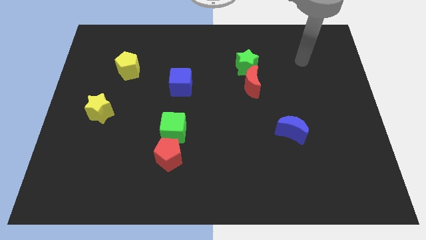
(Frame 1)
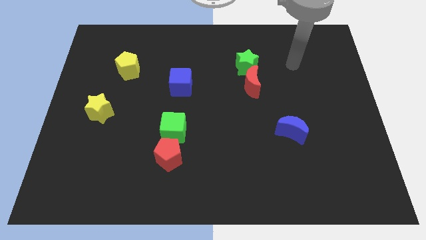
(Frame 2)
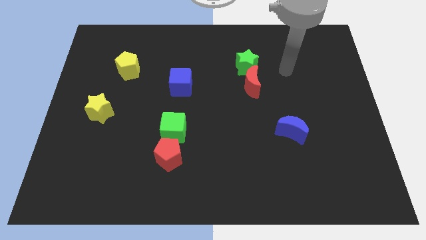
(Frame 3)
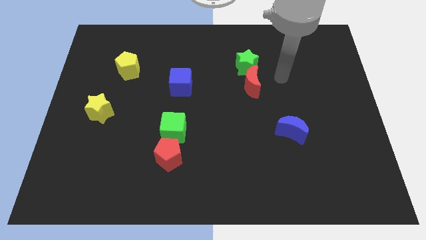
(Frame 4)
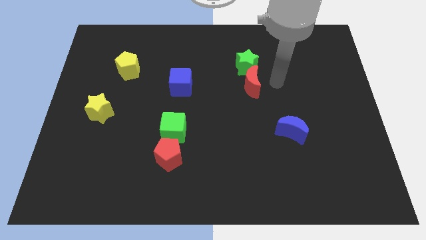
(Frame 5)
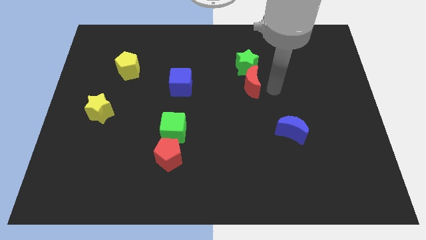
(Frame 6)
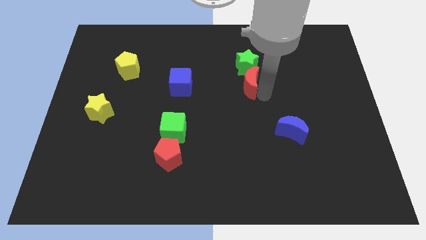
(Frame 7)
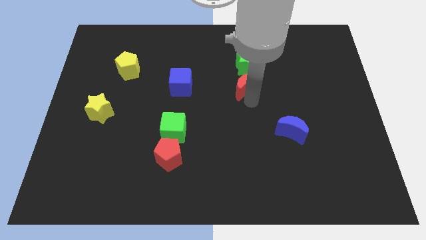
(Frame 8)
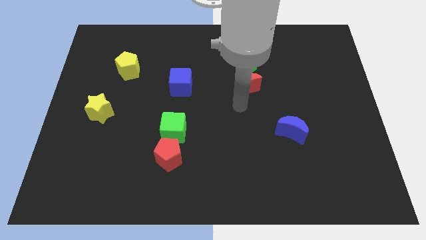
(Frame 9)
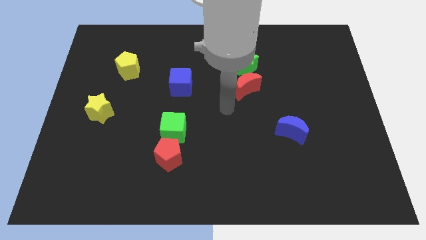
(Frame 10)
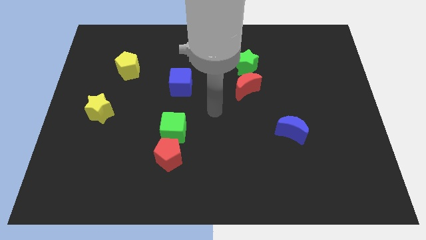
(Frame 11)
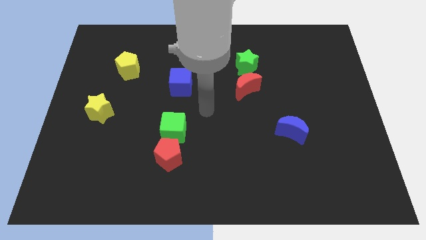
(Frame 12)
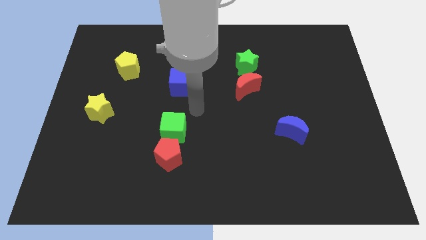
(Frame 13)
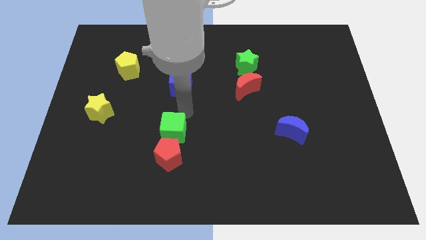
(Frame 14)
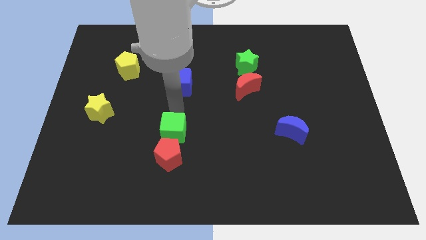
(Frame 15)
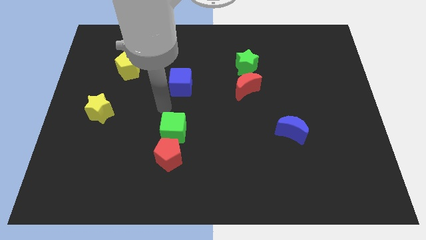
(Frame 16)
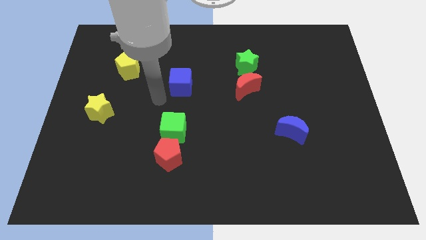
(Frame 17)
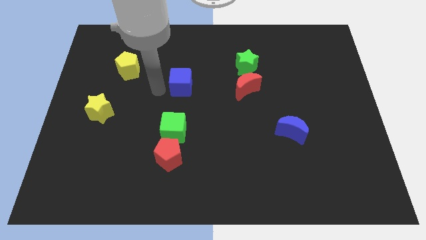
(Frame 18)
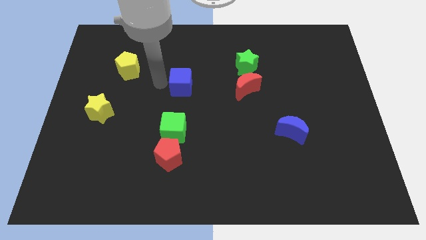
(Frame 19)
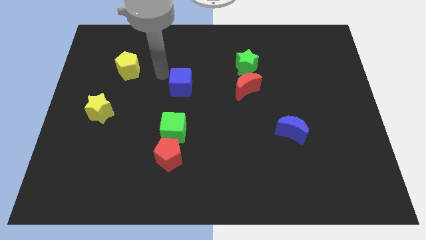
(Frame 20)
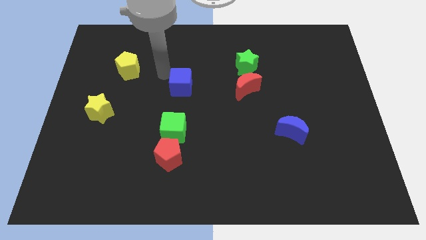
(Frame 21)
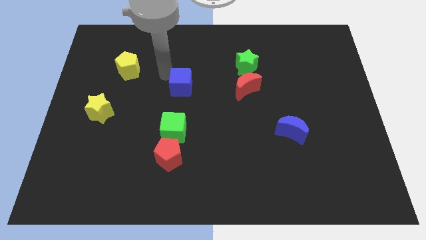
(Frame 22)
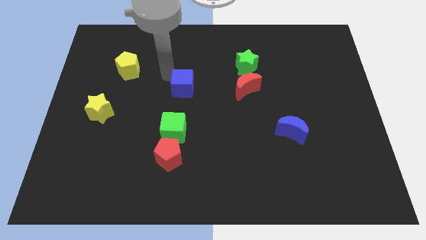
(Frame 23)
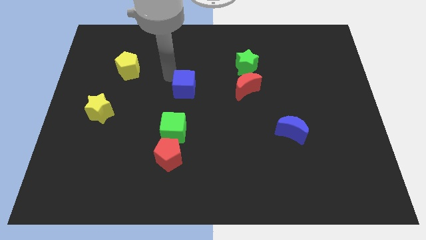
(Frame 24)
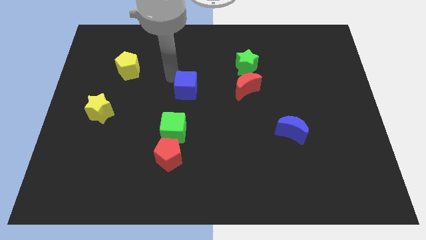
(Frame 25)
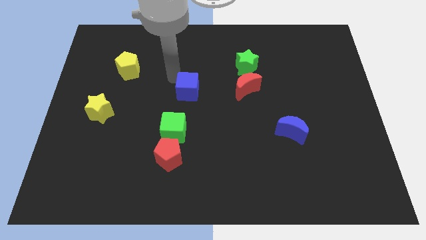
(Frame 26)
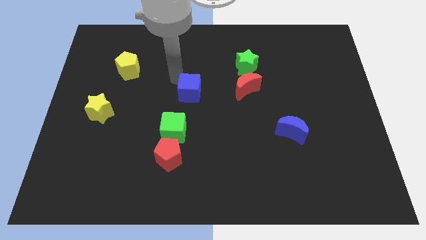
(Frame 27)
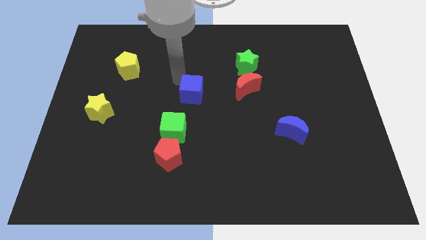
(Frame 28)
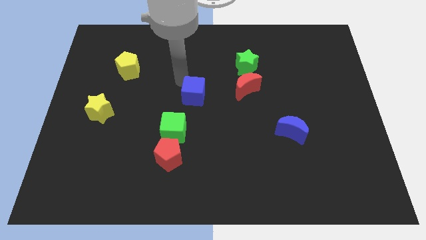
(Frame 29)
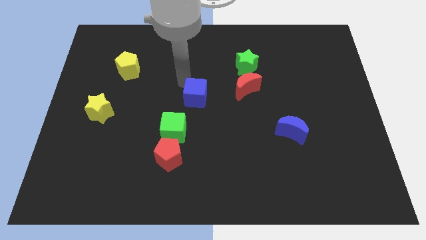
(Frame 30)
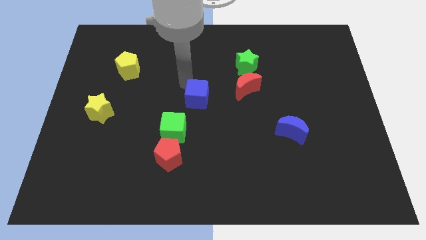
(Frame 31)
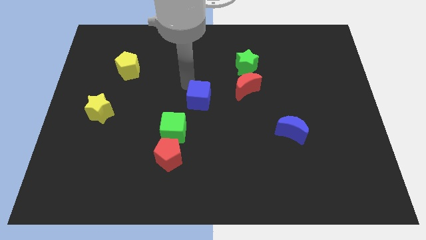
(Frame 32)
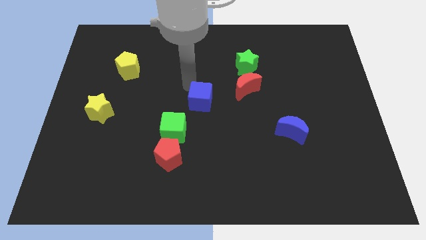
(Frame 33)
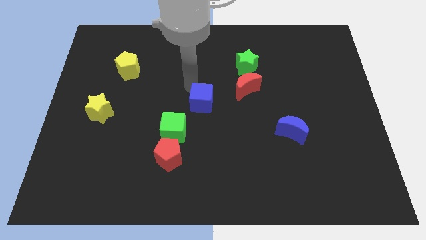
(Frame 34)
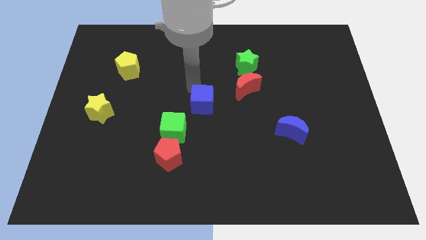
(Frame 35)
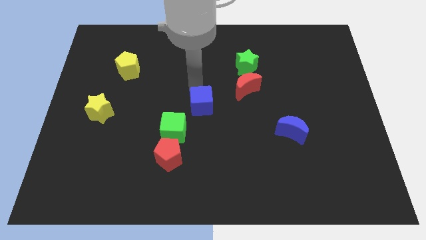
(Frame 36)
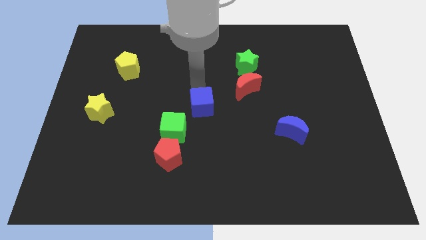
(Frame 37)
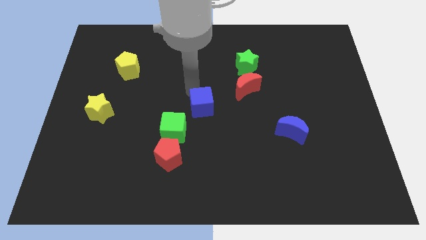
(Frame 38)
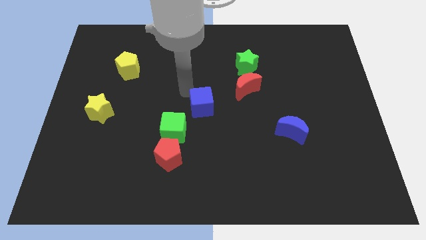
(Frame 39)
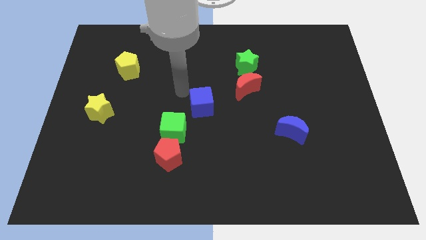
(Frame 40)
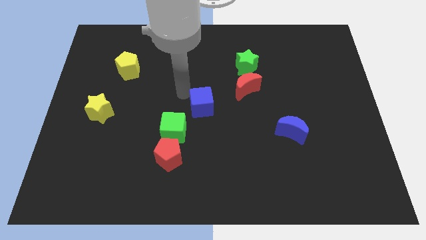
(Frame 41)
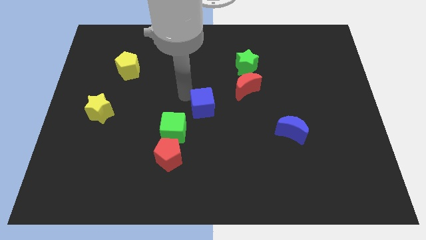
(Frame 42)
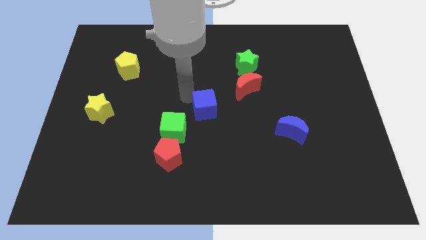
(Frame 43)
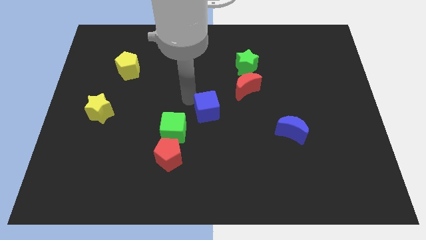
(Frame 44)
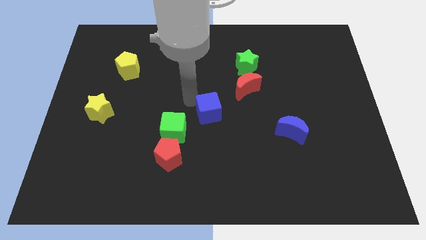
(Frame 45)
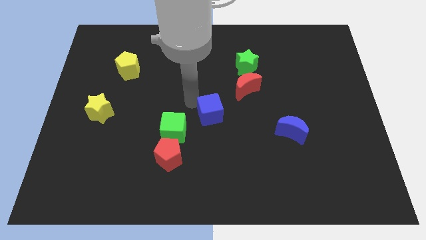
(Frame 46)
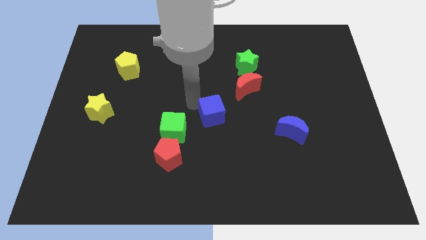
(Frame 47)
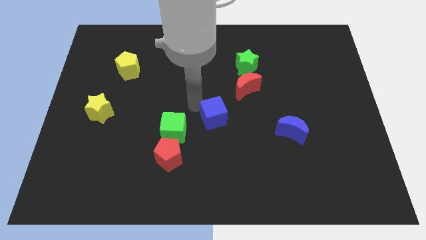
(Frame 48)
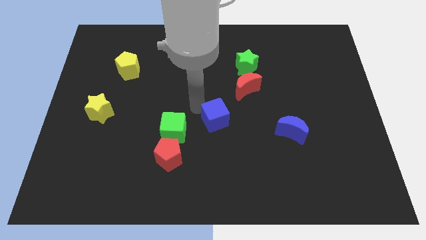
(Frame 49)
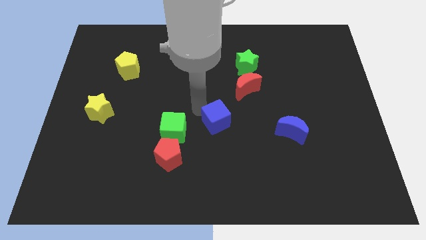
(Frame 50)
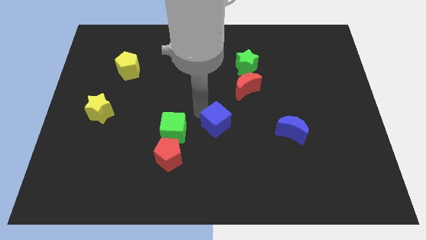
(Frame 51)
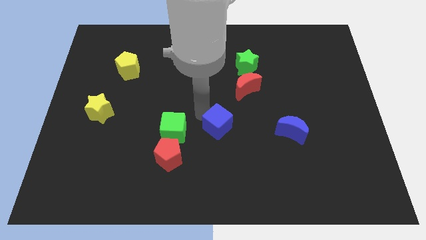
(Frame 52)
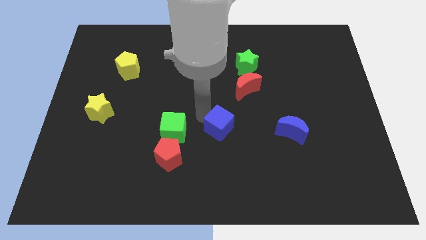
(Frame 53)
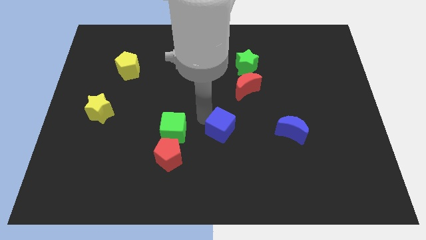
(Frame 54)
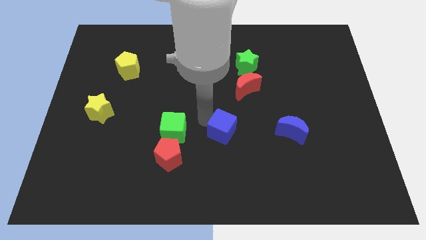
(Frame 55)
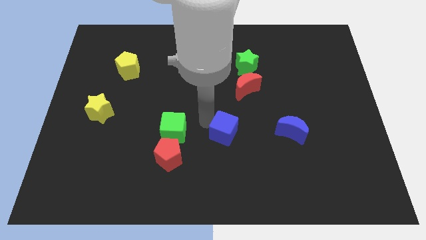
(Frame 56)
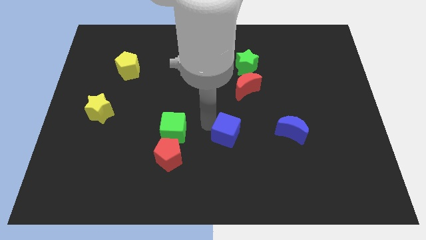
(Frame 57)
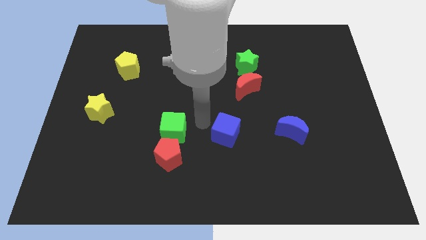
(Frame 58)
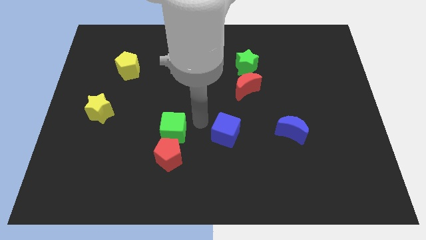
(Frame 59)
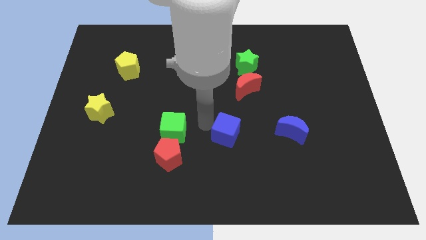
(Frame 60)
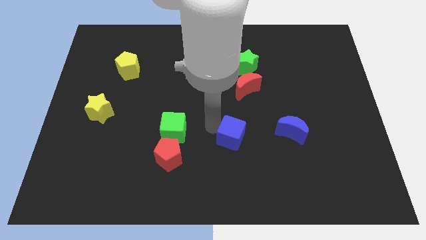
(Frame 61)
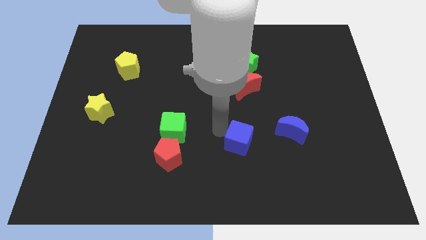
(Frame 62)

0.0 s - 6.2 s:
slide the blue cube down and right

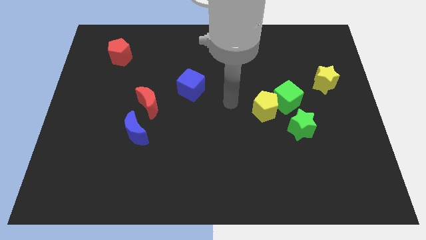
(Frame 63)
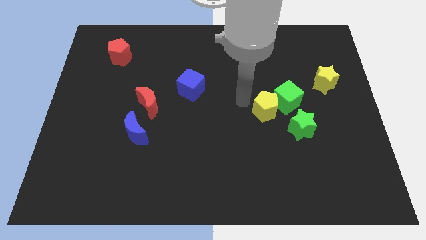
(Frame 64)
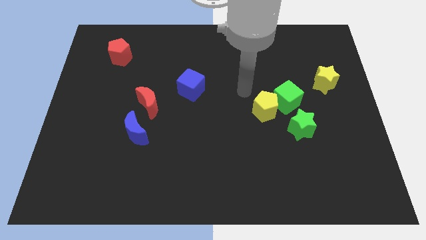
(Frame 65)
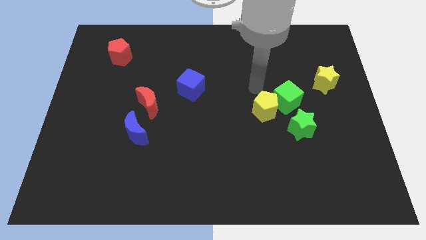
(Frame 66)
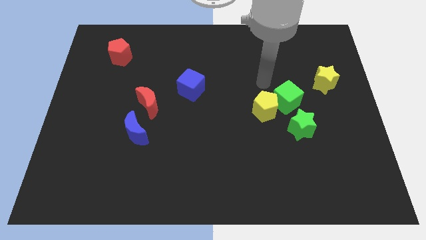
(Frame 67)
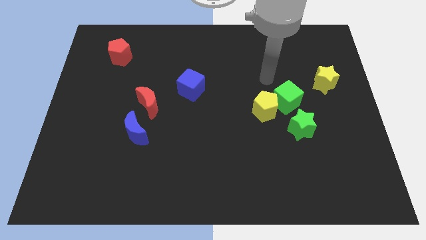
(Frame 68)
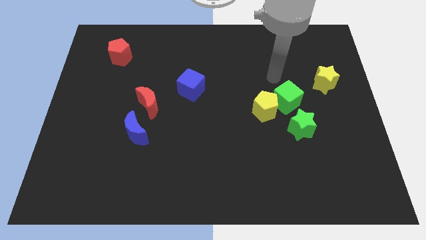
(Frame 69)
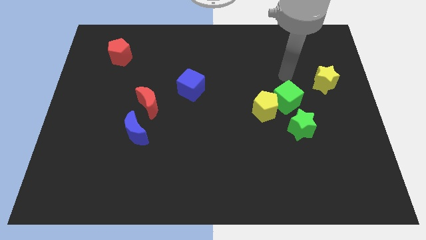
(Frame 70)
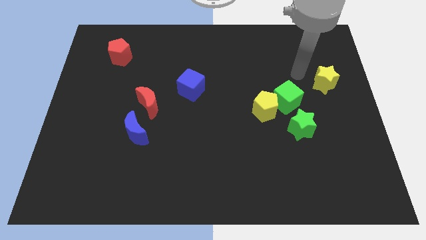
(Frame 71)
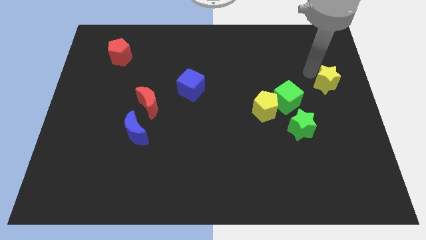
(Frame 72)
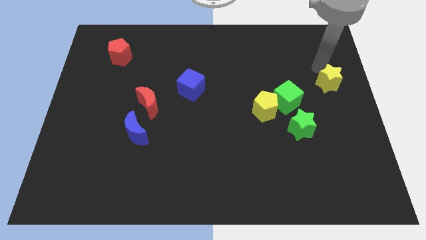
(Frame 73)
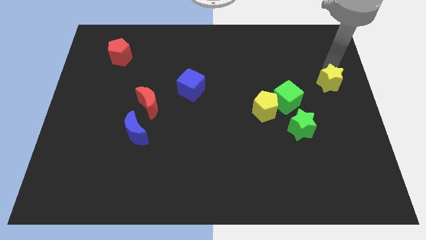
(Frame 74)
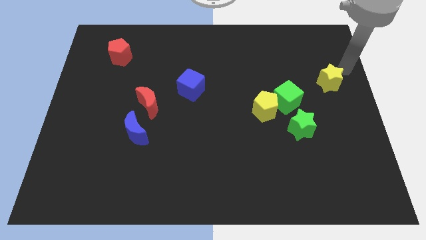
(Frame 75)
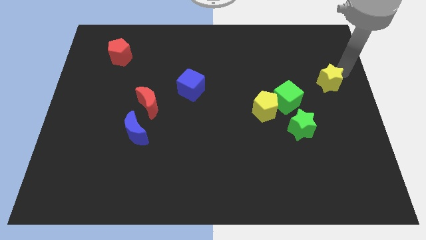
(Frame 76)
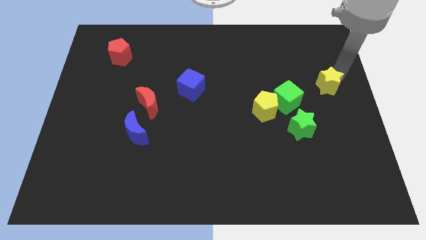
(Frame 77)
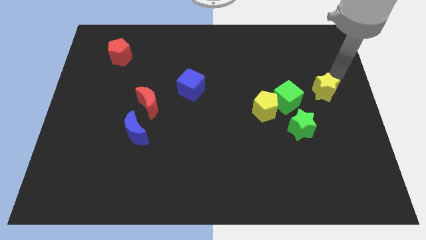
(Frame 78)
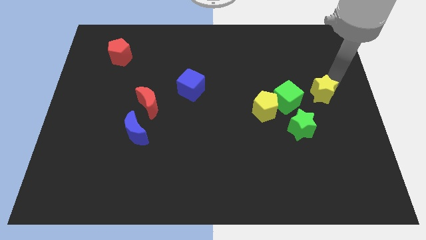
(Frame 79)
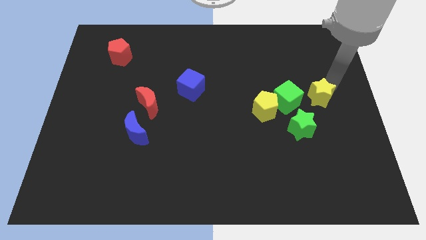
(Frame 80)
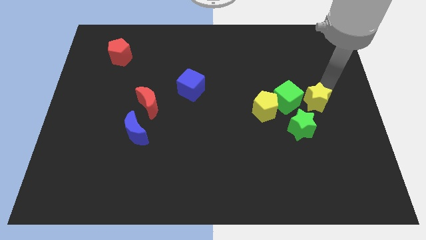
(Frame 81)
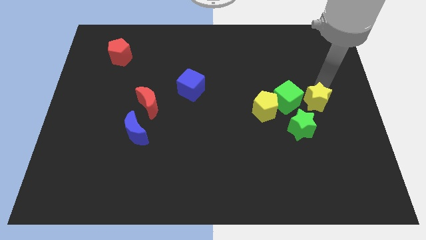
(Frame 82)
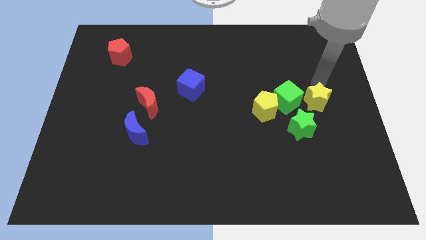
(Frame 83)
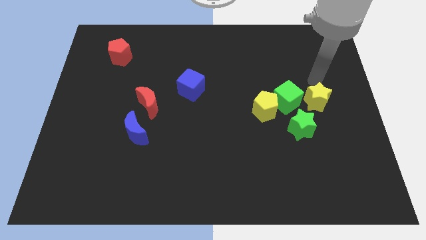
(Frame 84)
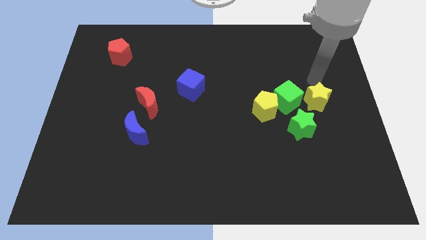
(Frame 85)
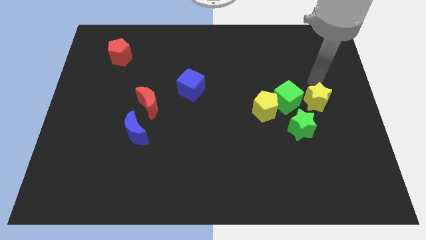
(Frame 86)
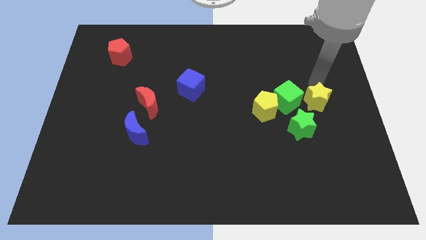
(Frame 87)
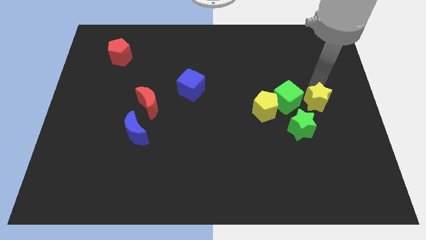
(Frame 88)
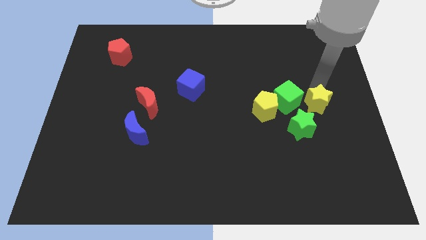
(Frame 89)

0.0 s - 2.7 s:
move the yellow star downwards and left diagonally a little
